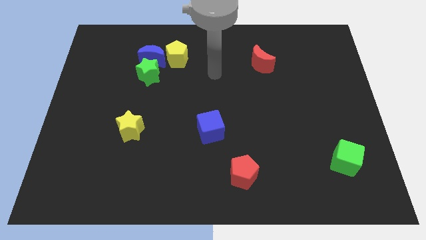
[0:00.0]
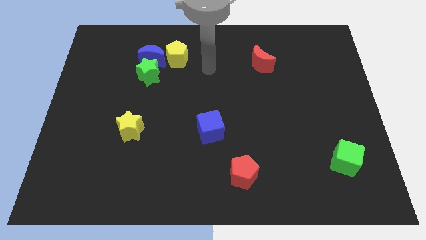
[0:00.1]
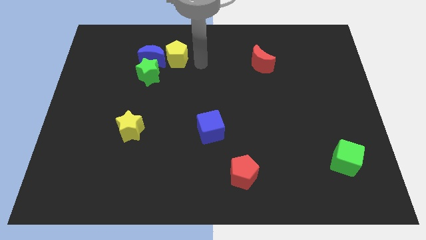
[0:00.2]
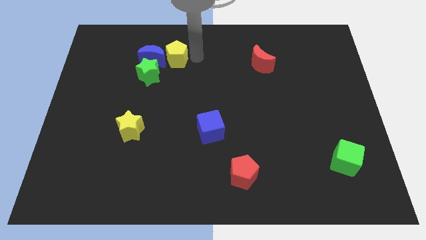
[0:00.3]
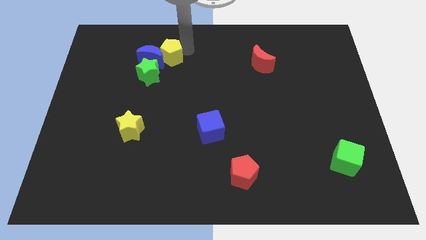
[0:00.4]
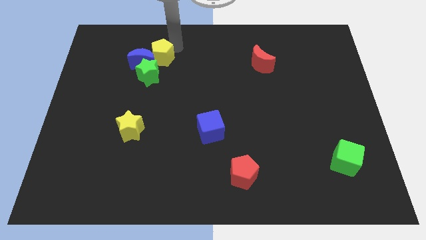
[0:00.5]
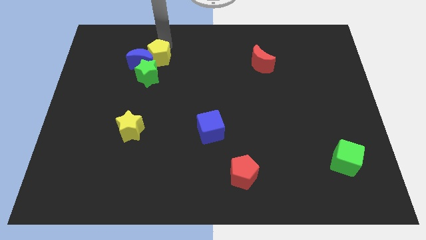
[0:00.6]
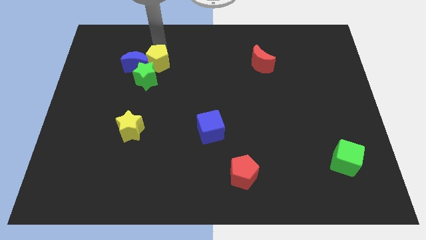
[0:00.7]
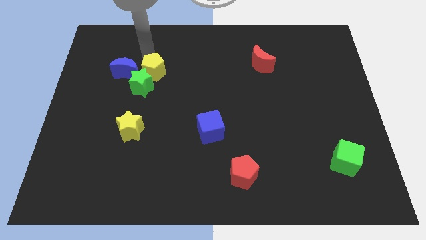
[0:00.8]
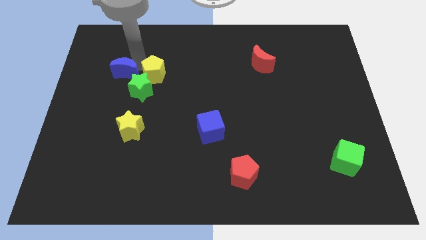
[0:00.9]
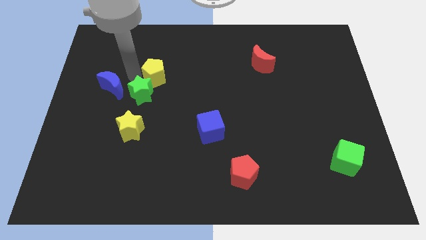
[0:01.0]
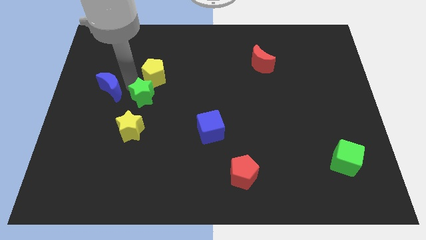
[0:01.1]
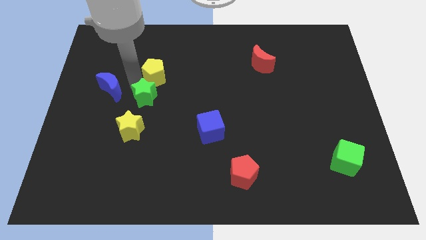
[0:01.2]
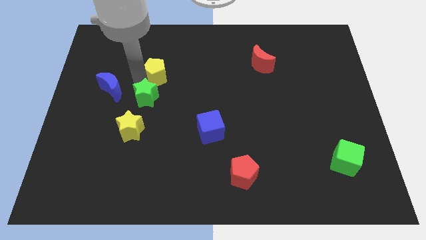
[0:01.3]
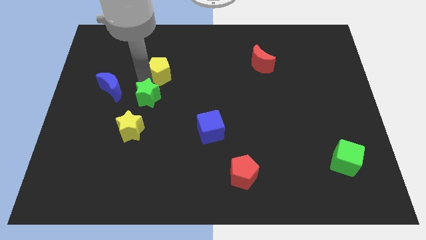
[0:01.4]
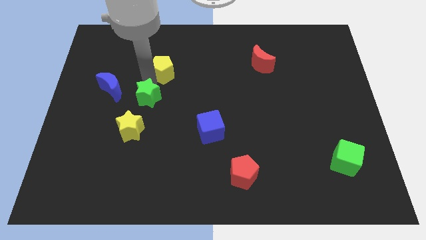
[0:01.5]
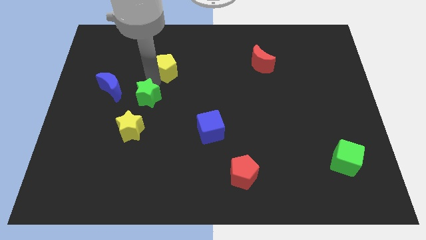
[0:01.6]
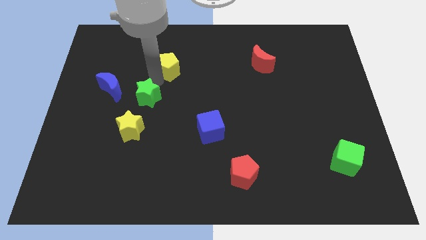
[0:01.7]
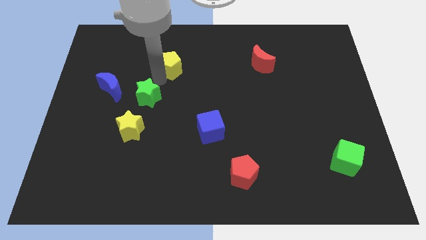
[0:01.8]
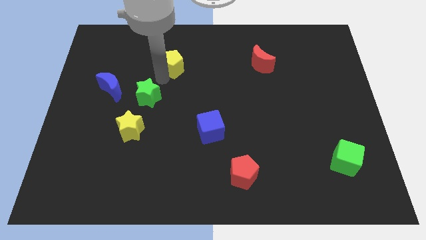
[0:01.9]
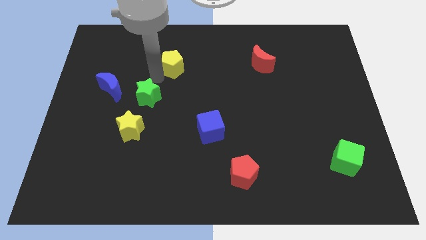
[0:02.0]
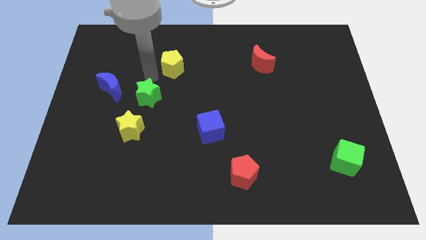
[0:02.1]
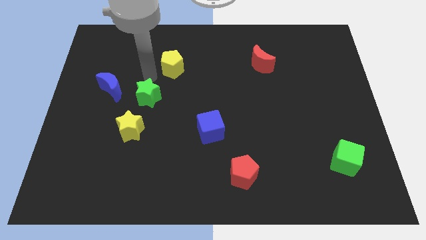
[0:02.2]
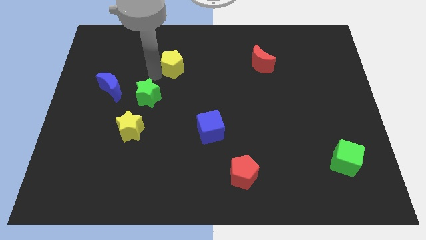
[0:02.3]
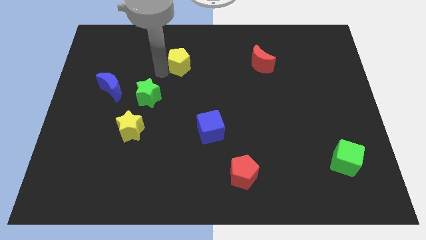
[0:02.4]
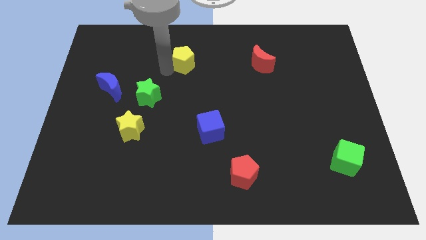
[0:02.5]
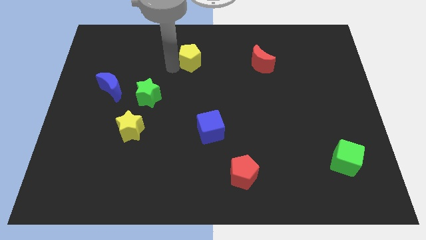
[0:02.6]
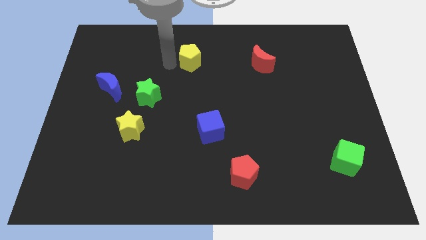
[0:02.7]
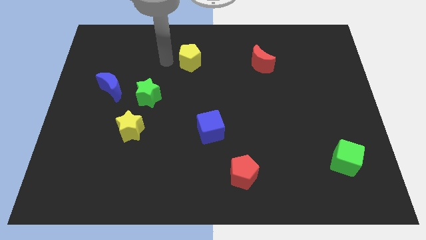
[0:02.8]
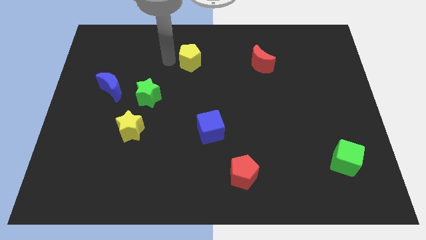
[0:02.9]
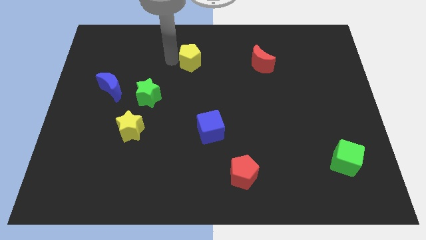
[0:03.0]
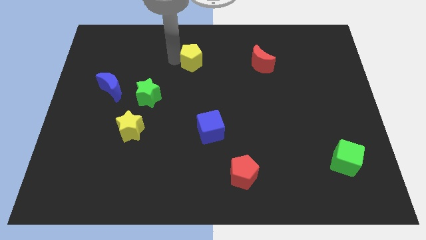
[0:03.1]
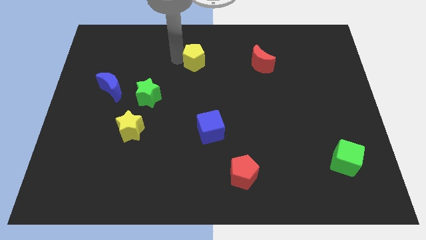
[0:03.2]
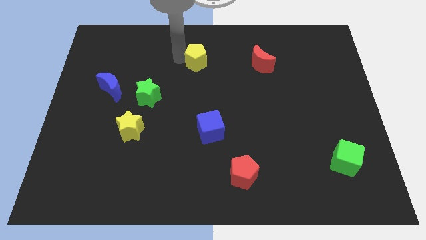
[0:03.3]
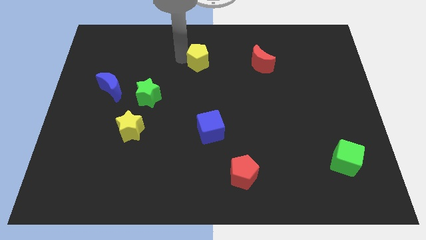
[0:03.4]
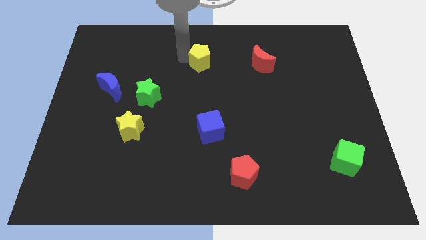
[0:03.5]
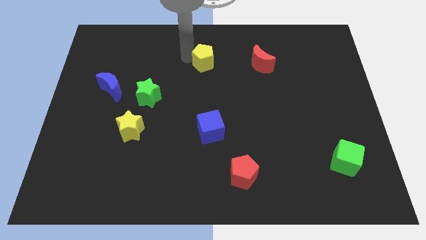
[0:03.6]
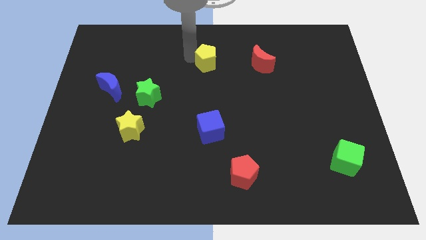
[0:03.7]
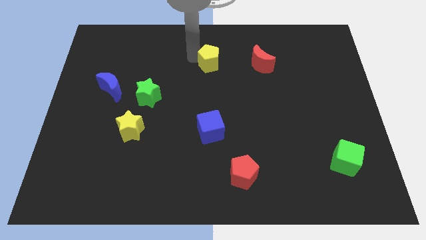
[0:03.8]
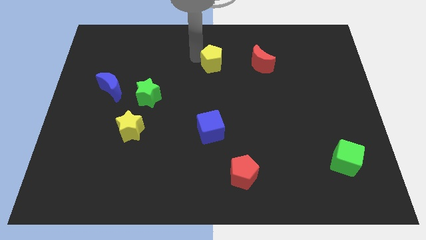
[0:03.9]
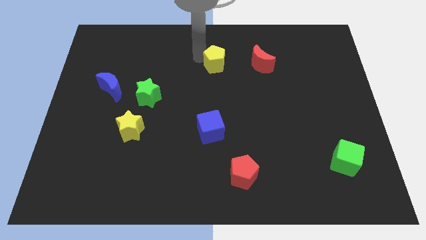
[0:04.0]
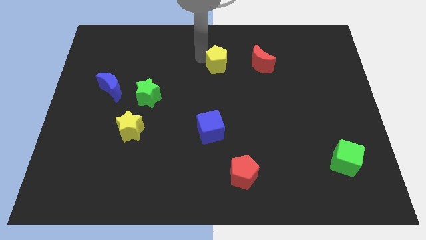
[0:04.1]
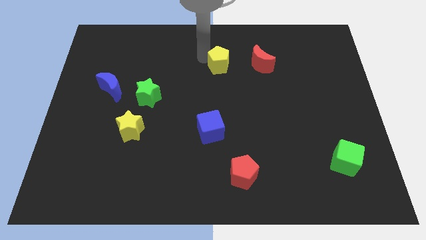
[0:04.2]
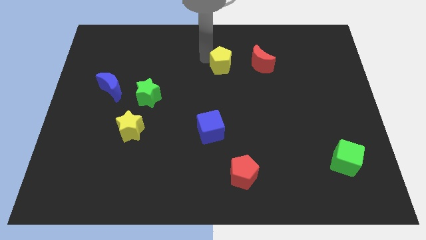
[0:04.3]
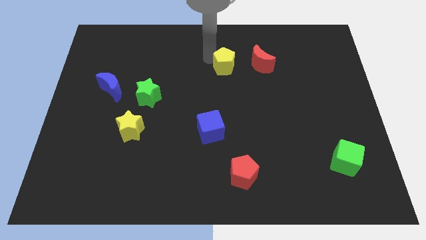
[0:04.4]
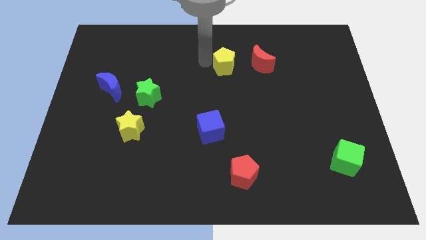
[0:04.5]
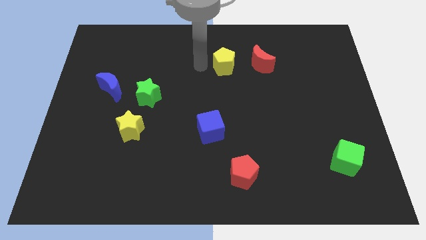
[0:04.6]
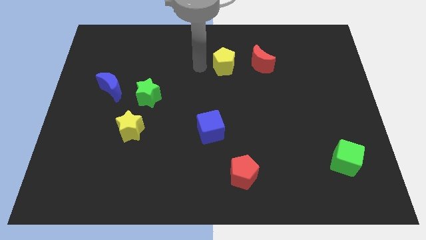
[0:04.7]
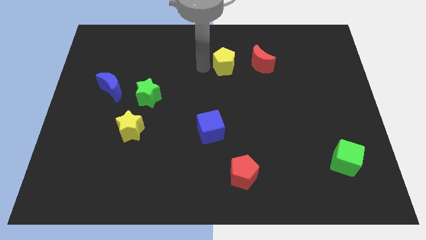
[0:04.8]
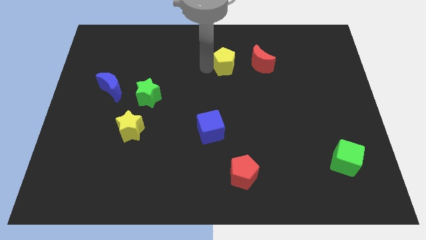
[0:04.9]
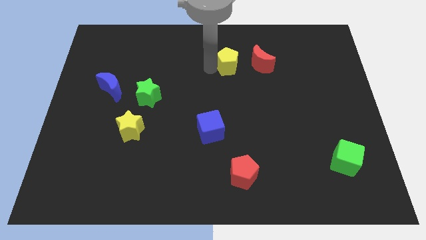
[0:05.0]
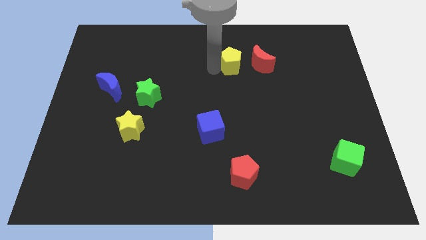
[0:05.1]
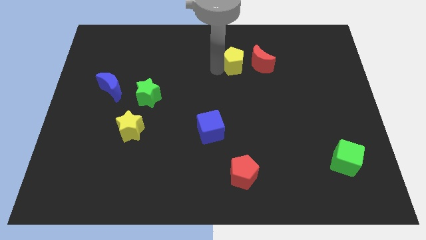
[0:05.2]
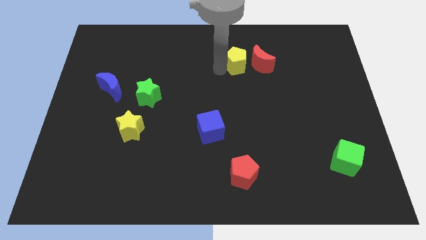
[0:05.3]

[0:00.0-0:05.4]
move the yellow pentagon next to the red moon

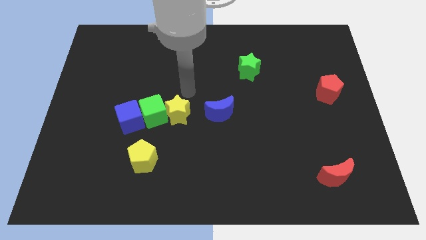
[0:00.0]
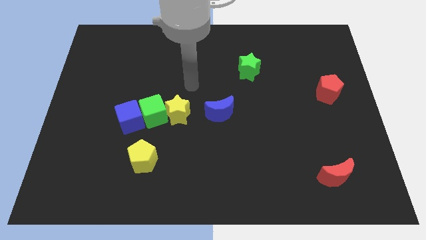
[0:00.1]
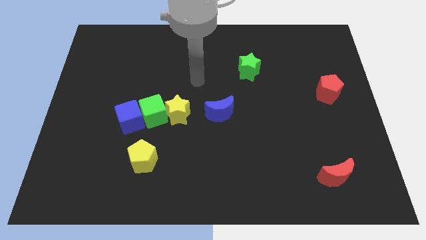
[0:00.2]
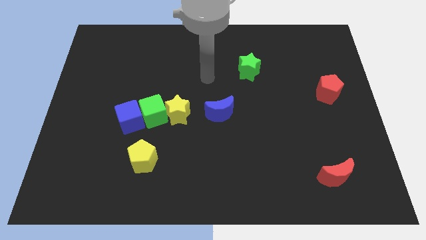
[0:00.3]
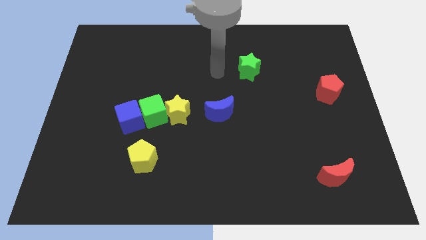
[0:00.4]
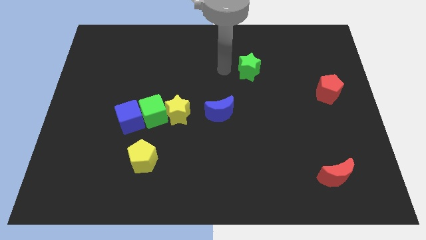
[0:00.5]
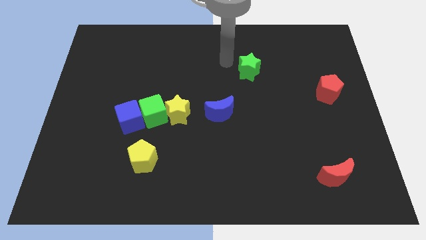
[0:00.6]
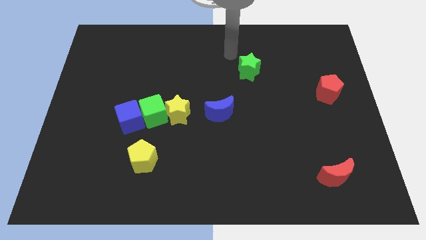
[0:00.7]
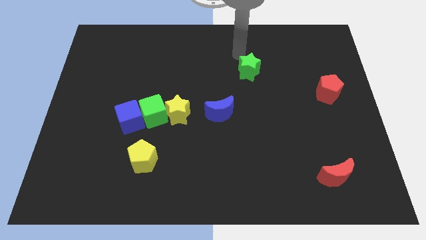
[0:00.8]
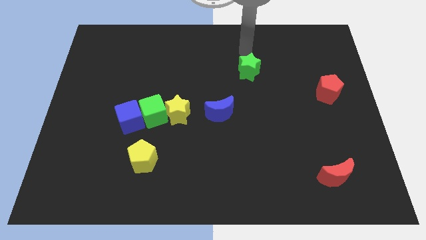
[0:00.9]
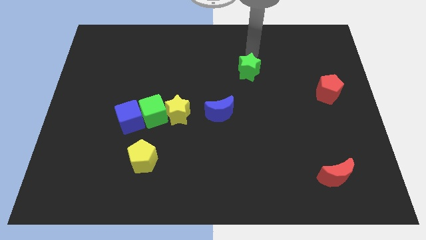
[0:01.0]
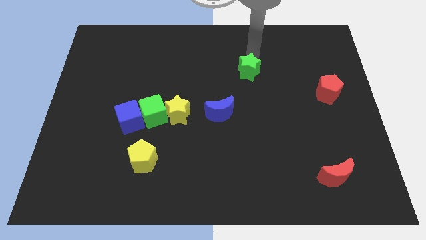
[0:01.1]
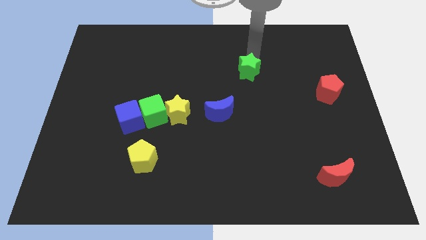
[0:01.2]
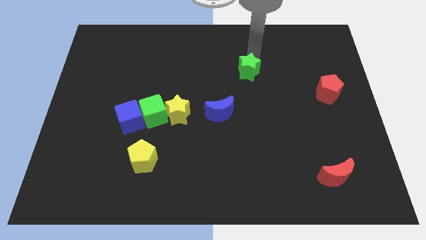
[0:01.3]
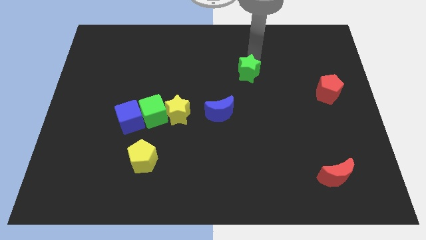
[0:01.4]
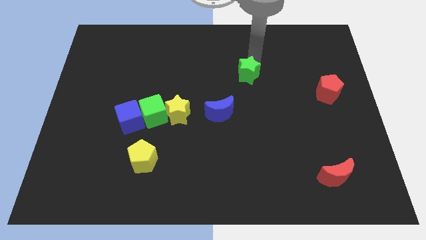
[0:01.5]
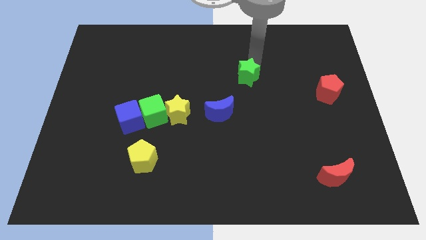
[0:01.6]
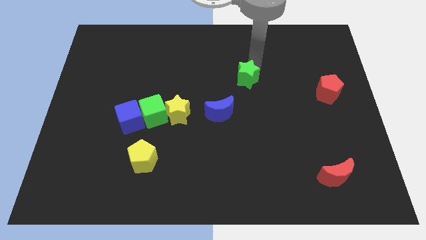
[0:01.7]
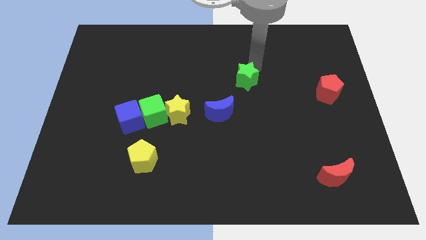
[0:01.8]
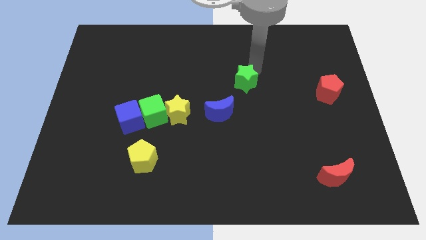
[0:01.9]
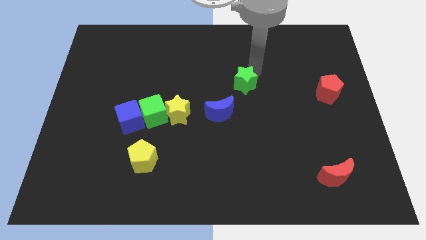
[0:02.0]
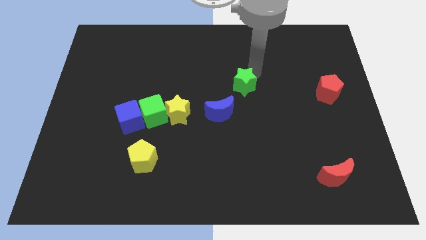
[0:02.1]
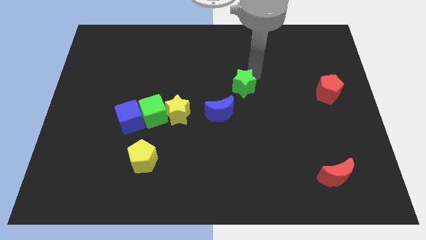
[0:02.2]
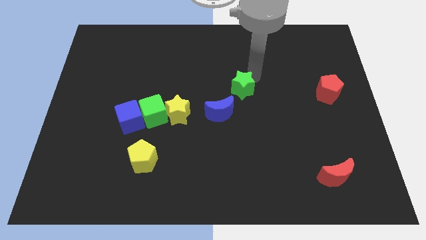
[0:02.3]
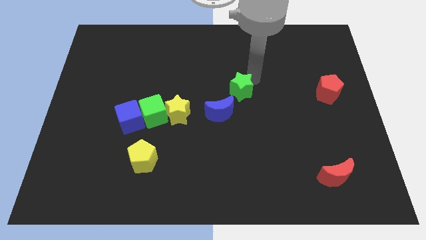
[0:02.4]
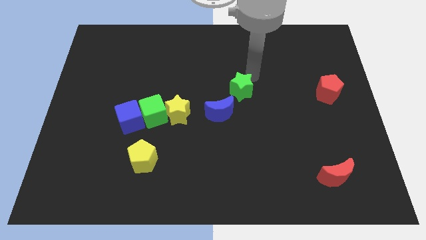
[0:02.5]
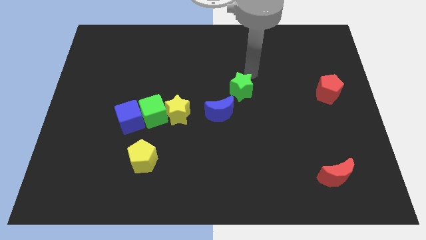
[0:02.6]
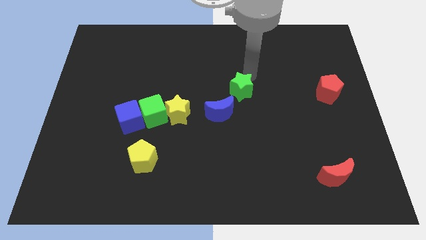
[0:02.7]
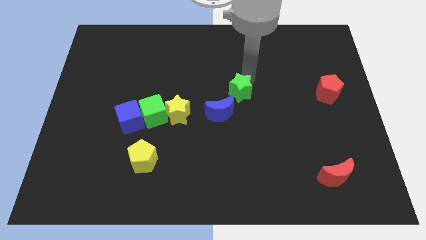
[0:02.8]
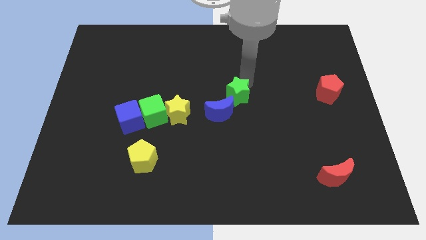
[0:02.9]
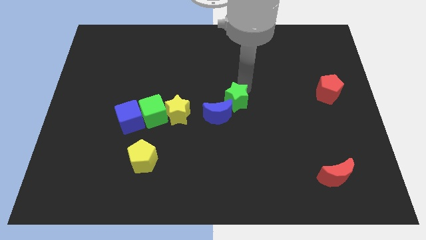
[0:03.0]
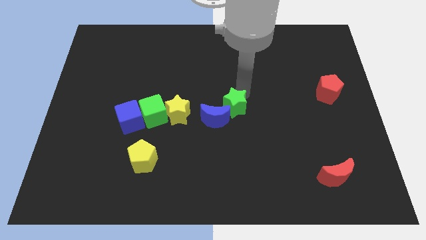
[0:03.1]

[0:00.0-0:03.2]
move the green star towards the blue moon

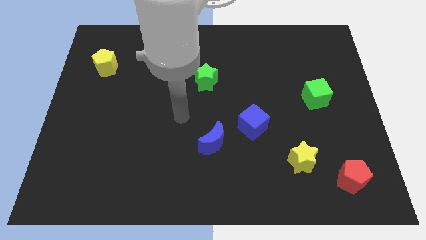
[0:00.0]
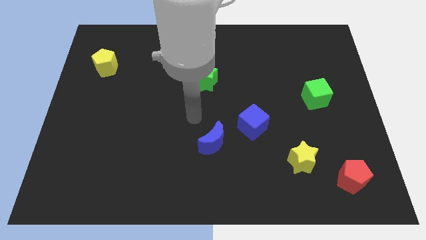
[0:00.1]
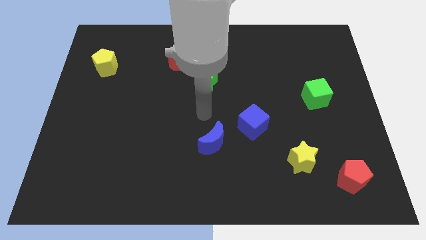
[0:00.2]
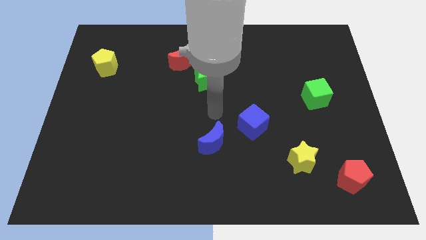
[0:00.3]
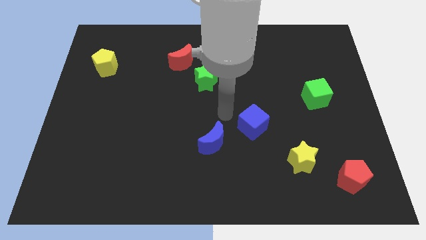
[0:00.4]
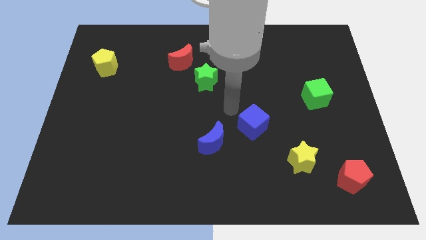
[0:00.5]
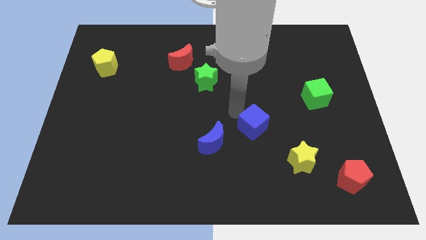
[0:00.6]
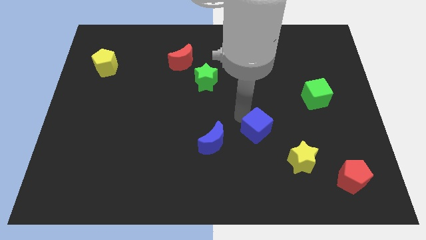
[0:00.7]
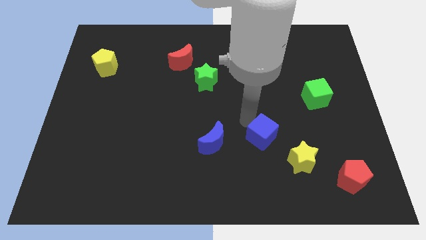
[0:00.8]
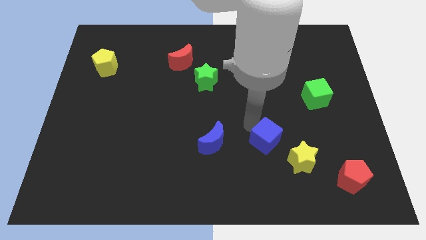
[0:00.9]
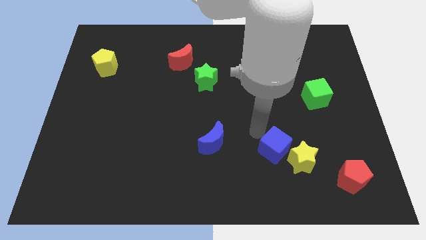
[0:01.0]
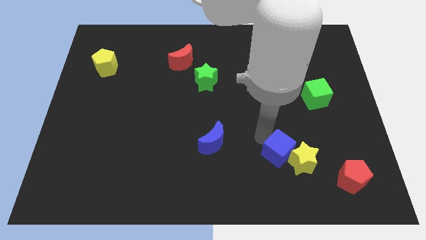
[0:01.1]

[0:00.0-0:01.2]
put the blue cube close to the yellow star
